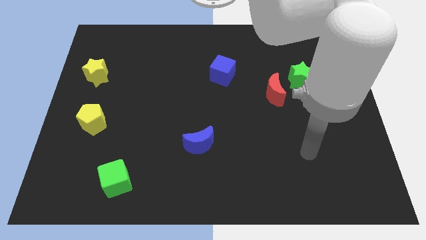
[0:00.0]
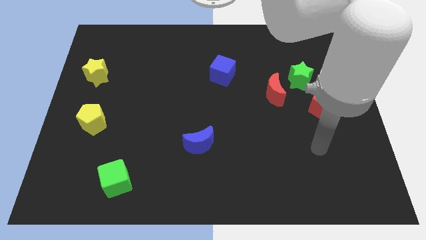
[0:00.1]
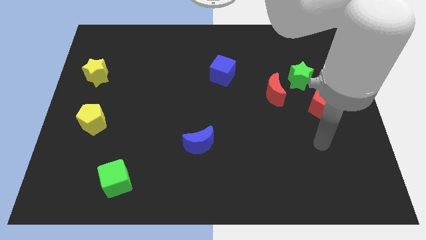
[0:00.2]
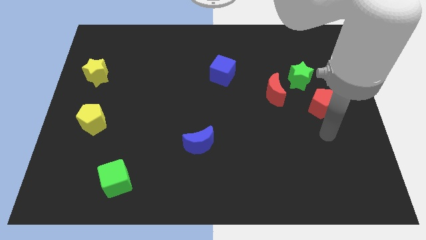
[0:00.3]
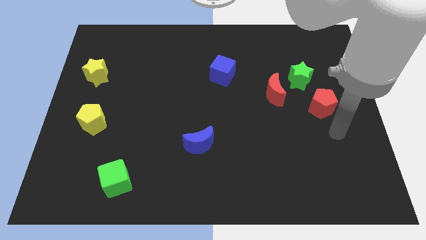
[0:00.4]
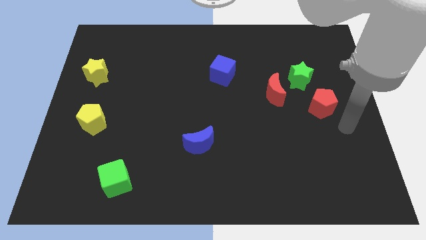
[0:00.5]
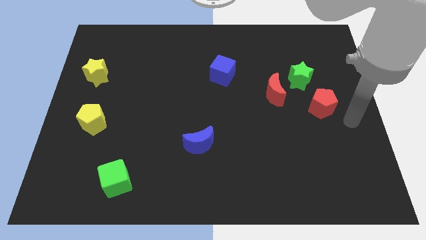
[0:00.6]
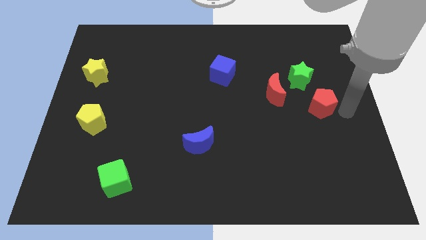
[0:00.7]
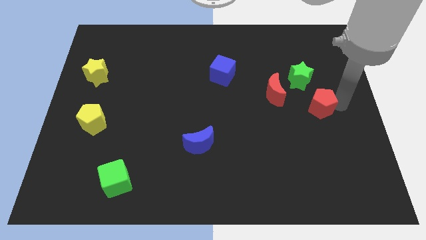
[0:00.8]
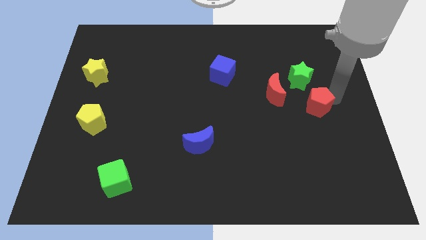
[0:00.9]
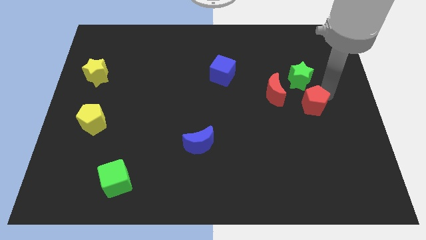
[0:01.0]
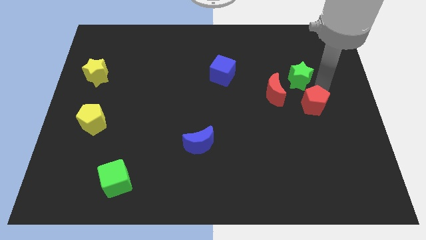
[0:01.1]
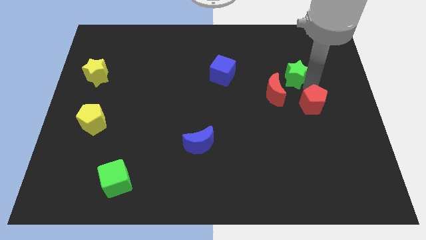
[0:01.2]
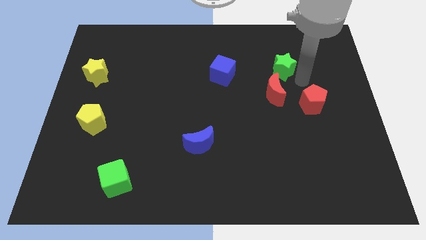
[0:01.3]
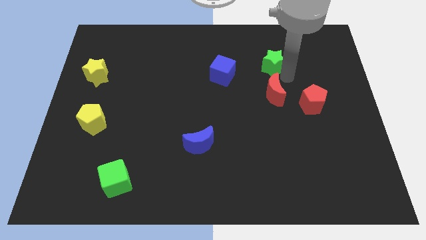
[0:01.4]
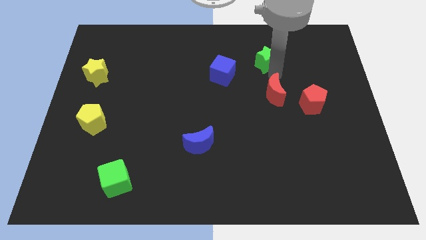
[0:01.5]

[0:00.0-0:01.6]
separate the red moon from the green star

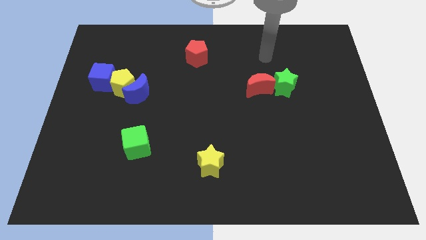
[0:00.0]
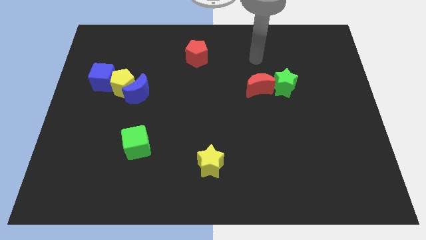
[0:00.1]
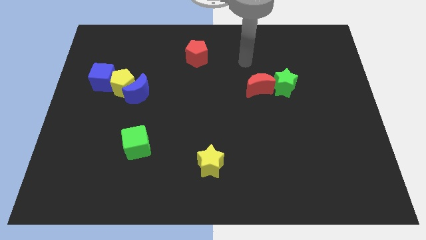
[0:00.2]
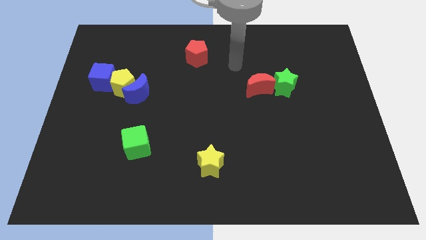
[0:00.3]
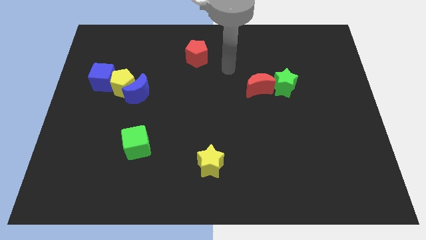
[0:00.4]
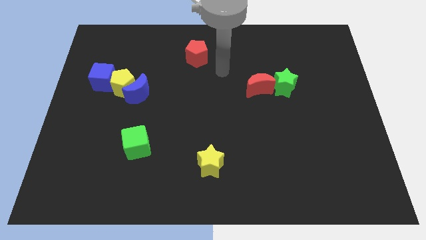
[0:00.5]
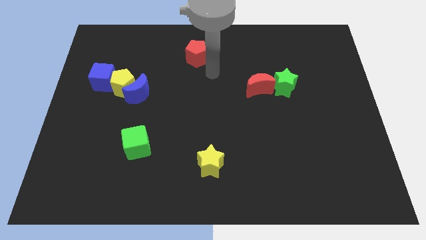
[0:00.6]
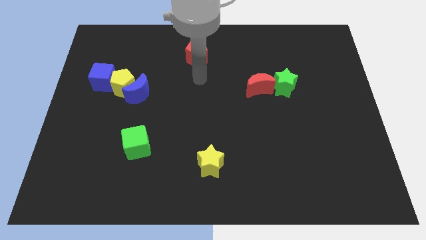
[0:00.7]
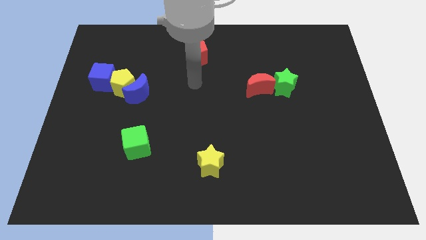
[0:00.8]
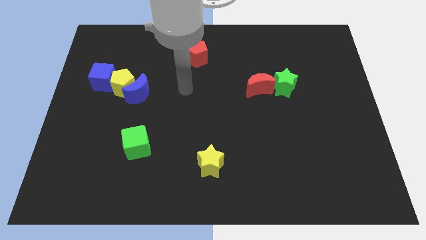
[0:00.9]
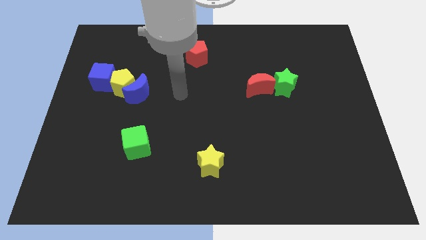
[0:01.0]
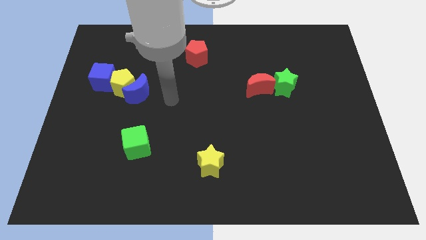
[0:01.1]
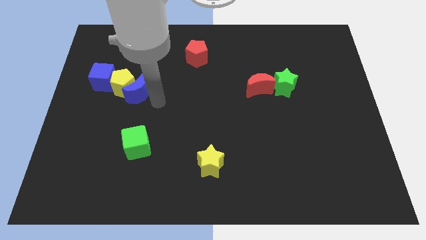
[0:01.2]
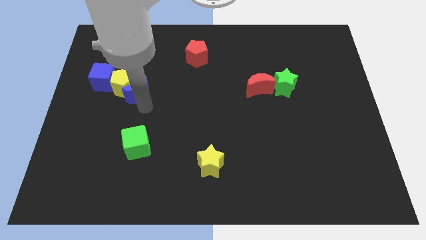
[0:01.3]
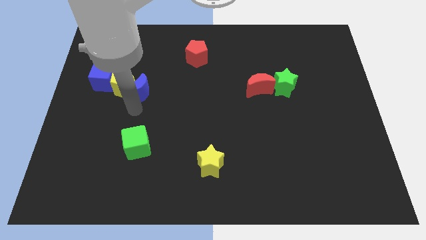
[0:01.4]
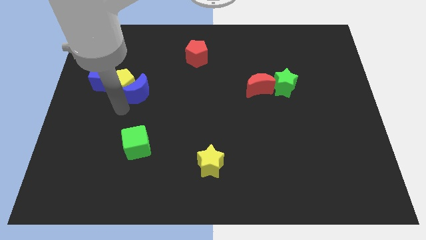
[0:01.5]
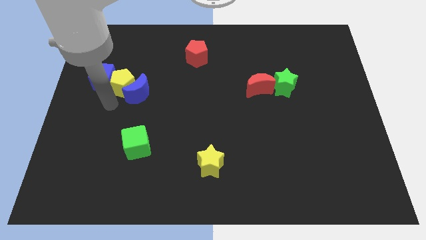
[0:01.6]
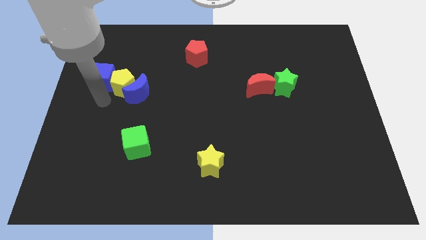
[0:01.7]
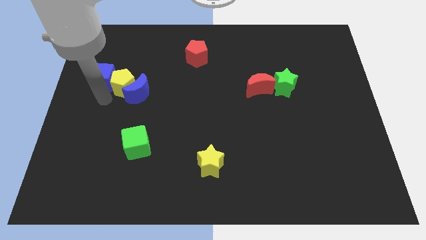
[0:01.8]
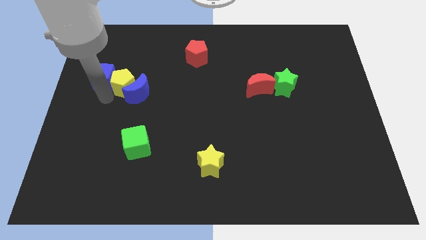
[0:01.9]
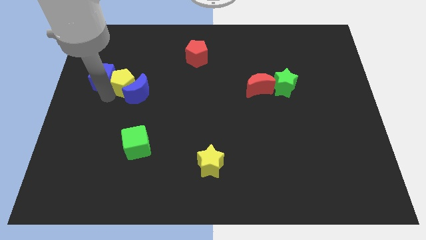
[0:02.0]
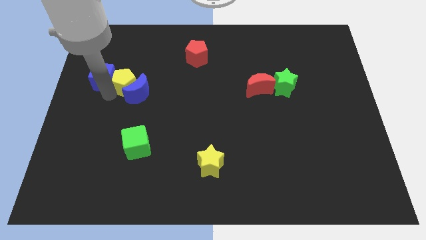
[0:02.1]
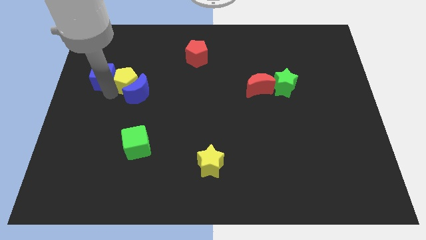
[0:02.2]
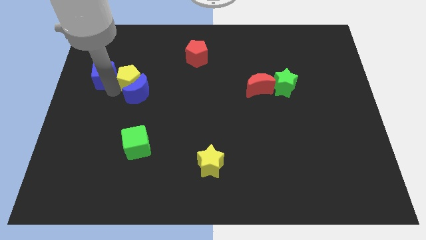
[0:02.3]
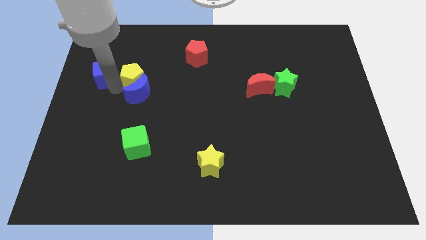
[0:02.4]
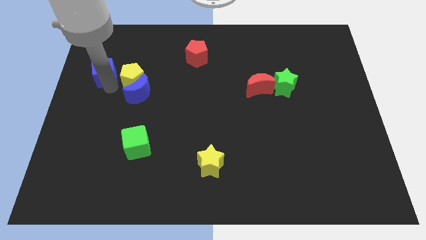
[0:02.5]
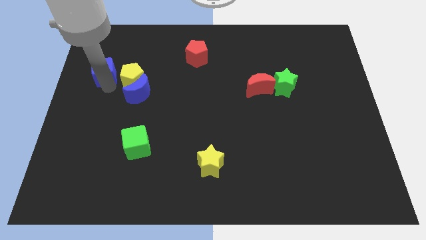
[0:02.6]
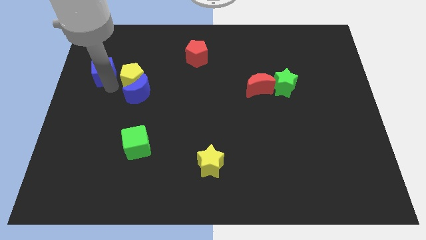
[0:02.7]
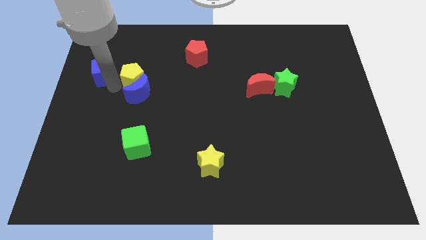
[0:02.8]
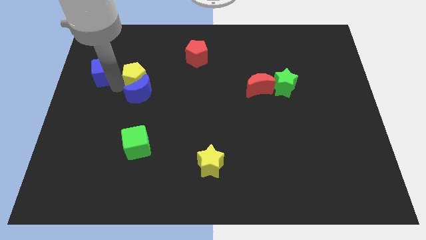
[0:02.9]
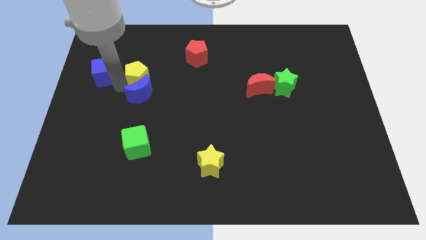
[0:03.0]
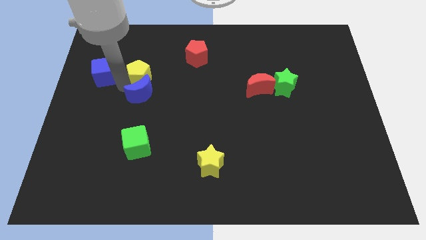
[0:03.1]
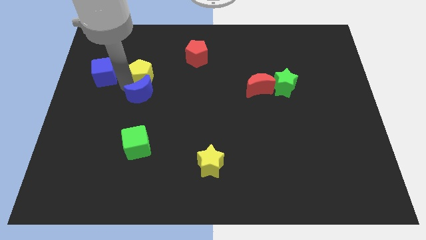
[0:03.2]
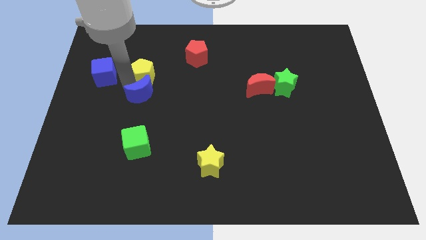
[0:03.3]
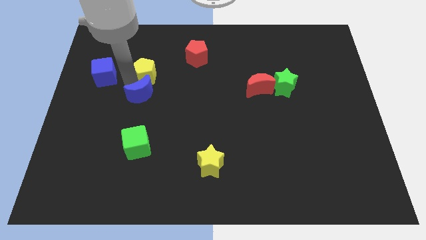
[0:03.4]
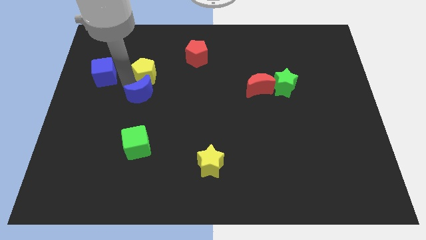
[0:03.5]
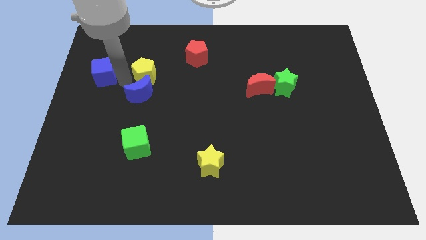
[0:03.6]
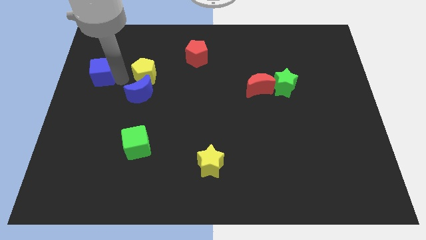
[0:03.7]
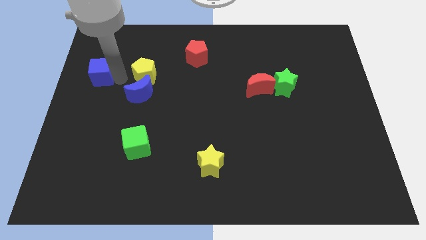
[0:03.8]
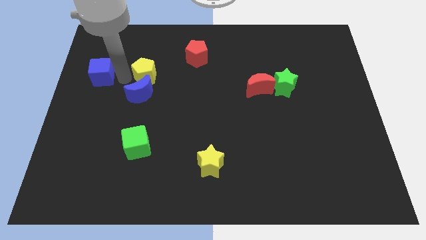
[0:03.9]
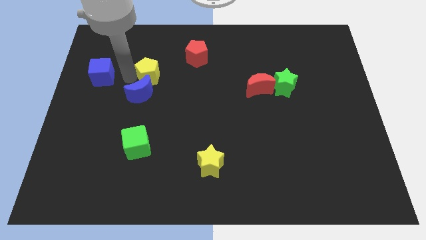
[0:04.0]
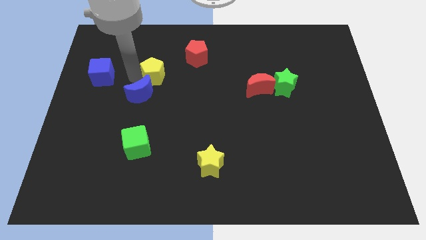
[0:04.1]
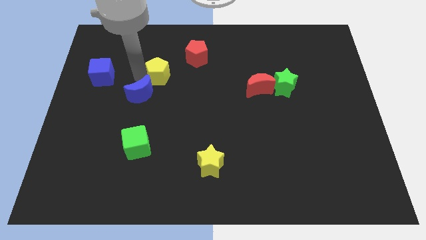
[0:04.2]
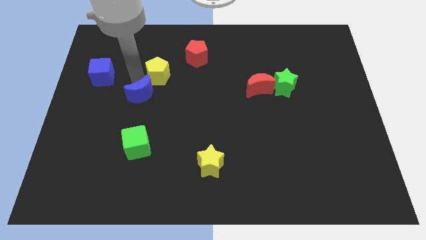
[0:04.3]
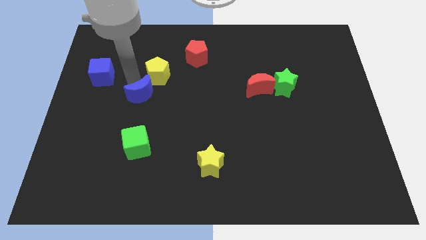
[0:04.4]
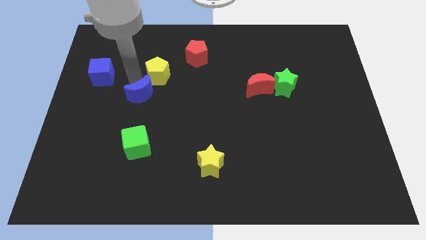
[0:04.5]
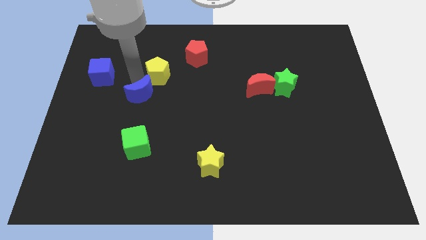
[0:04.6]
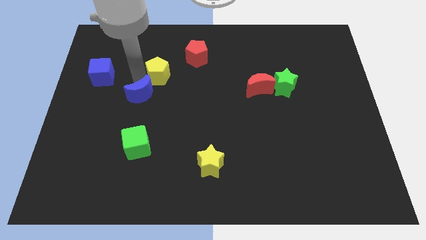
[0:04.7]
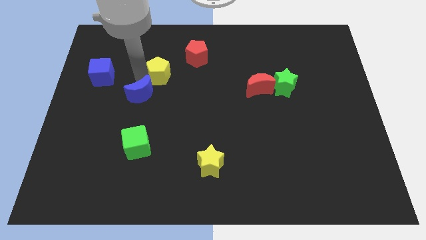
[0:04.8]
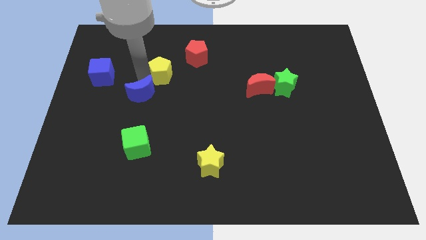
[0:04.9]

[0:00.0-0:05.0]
pull the yellow pentagon apart from the blue moon and blue cube

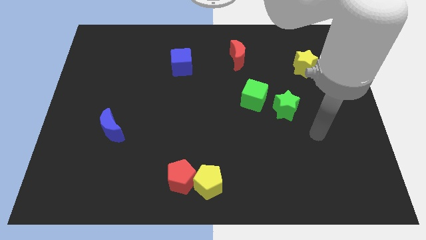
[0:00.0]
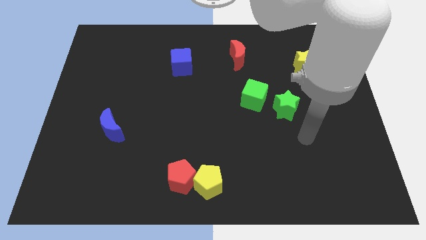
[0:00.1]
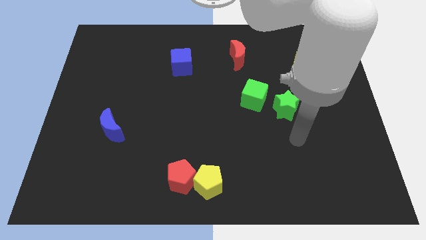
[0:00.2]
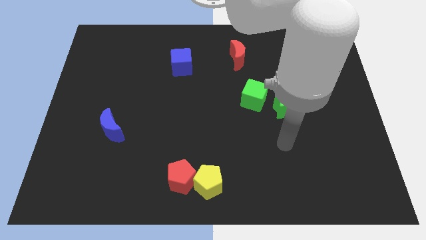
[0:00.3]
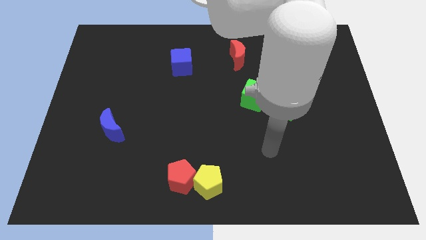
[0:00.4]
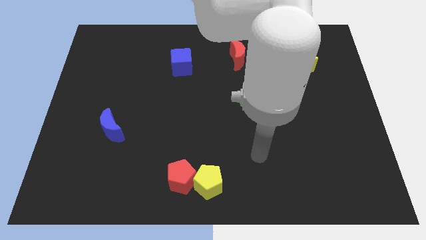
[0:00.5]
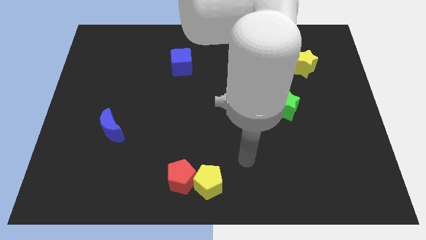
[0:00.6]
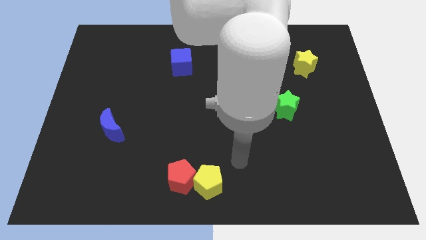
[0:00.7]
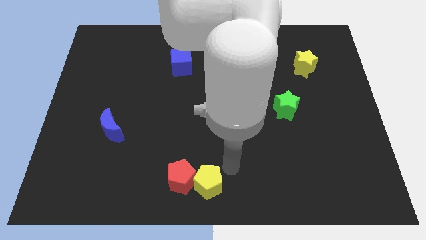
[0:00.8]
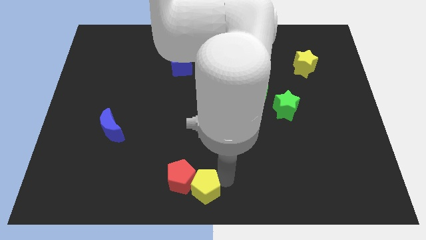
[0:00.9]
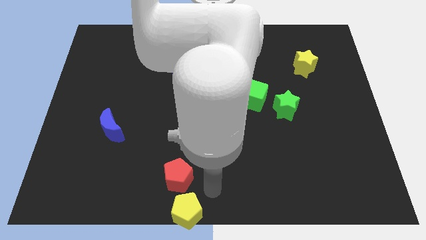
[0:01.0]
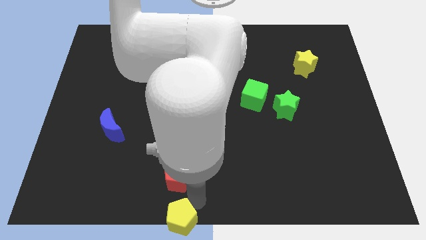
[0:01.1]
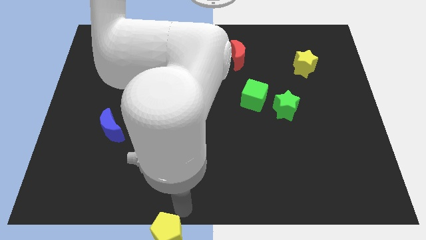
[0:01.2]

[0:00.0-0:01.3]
pull the red pentagon apart from the yellow pentagon

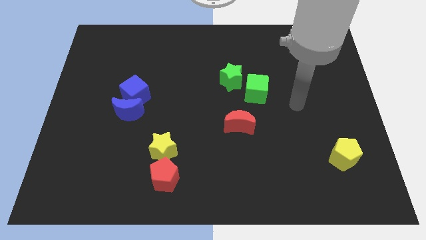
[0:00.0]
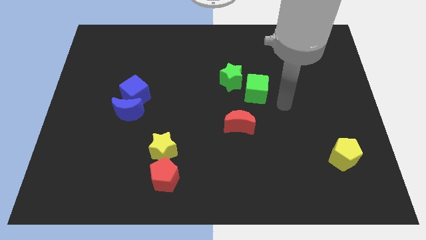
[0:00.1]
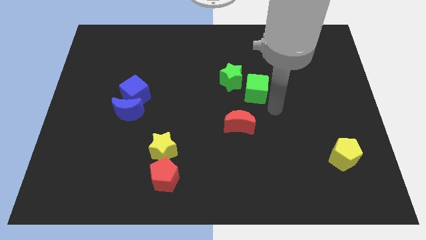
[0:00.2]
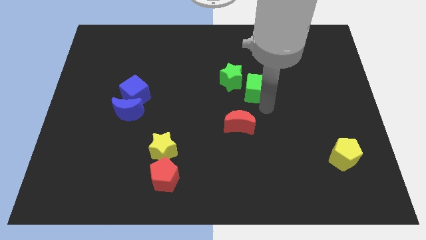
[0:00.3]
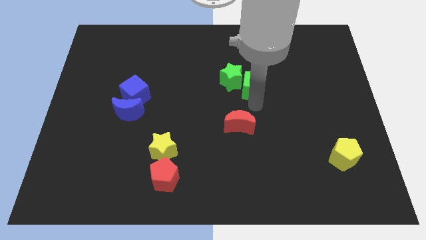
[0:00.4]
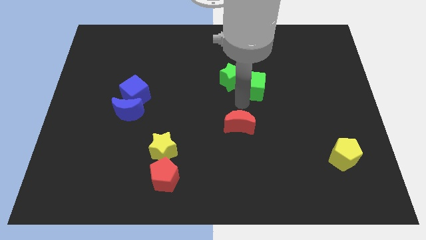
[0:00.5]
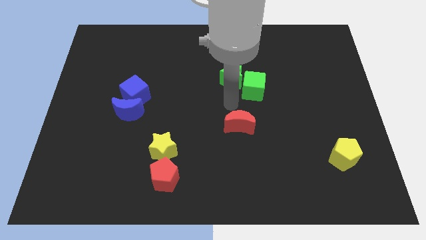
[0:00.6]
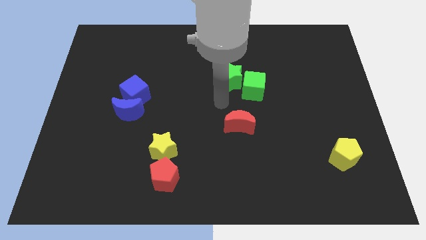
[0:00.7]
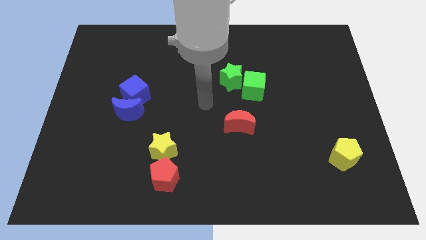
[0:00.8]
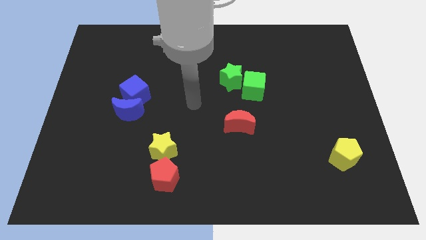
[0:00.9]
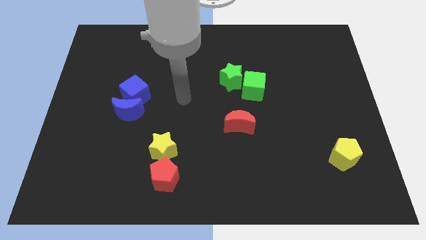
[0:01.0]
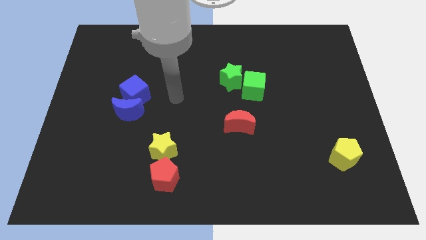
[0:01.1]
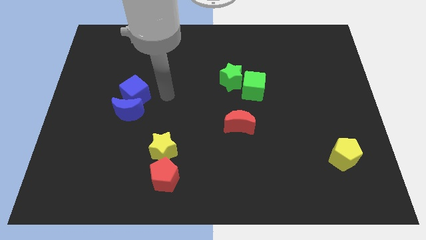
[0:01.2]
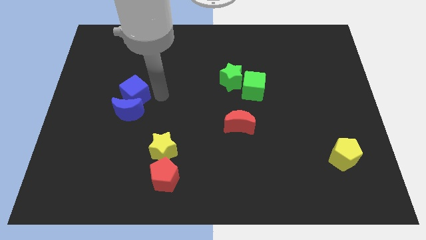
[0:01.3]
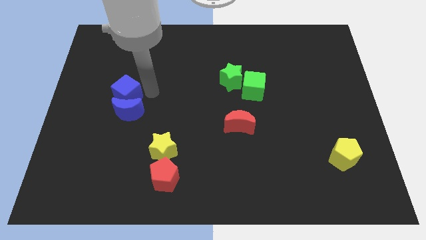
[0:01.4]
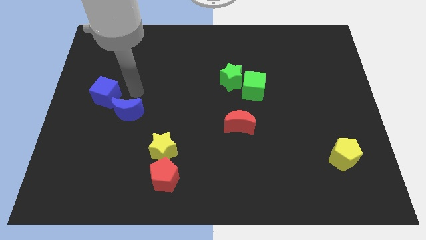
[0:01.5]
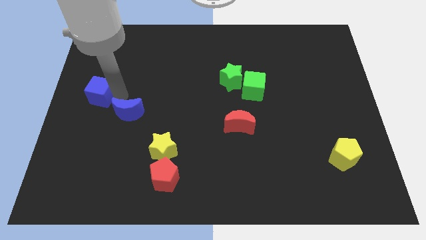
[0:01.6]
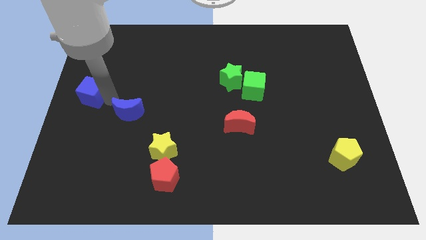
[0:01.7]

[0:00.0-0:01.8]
move the blue moon away from the blue cube
